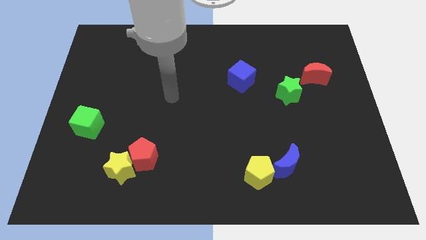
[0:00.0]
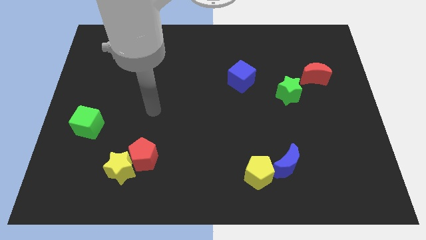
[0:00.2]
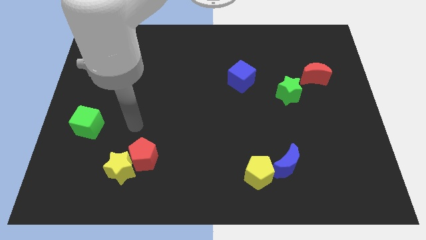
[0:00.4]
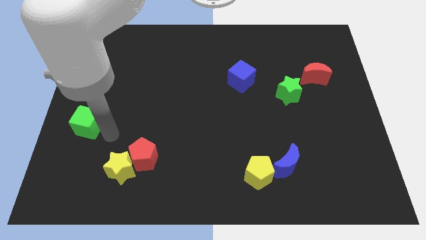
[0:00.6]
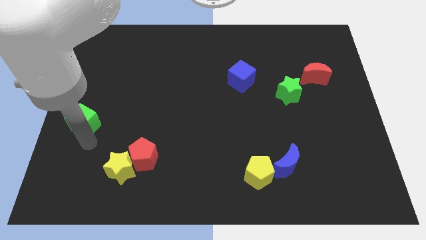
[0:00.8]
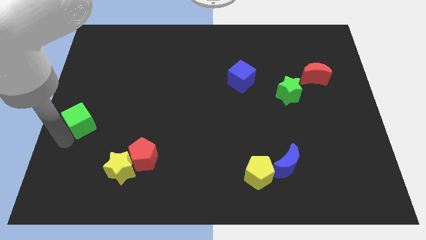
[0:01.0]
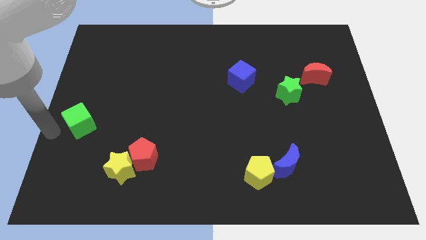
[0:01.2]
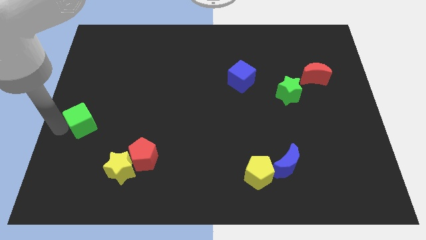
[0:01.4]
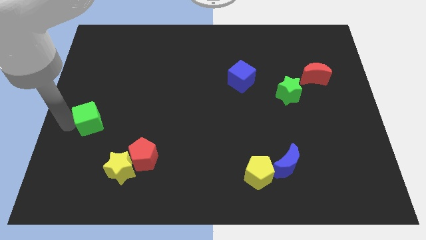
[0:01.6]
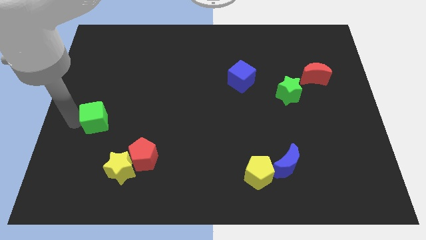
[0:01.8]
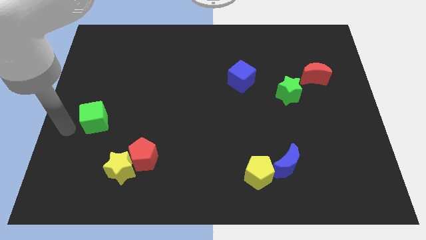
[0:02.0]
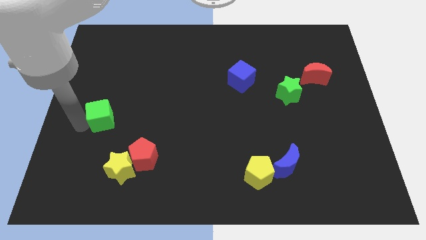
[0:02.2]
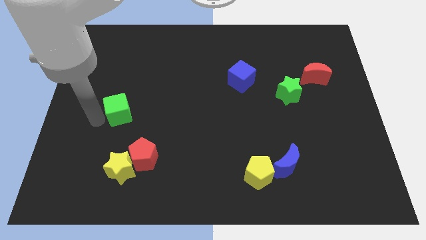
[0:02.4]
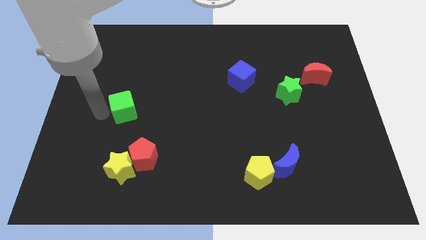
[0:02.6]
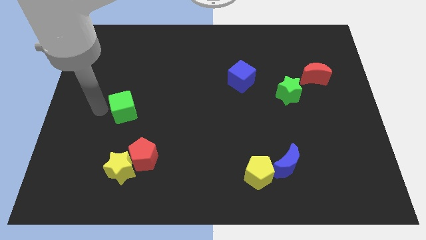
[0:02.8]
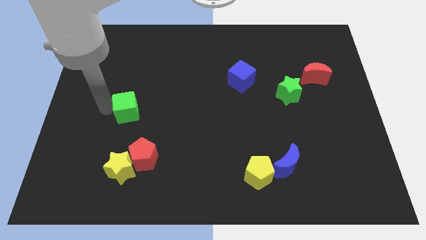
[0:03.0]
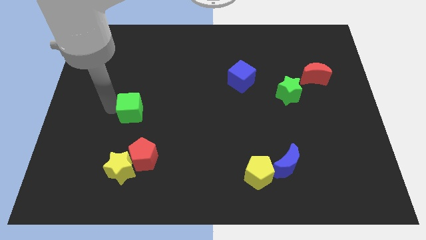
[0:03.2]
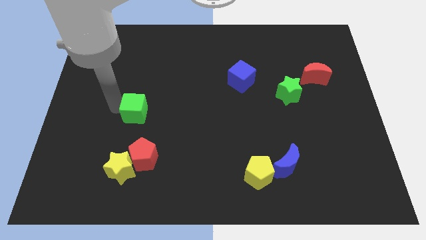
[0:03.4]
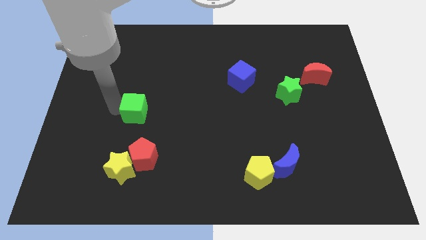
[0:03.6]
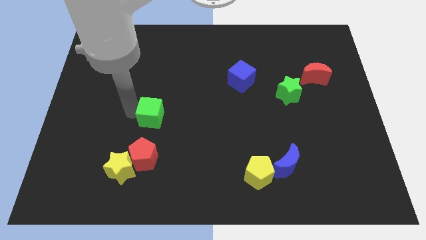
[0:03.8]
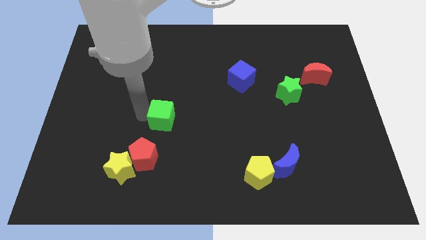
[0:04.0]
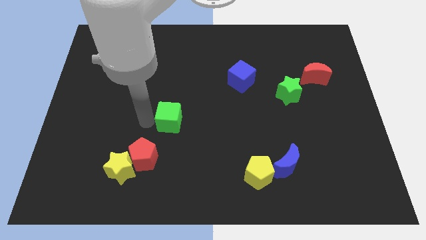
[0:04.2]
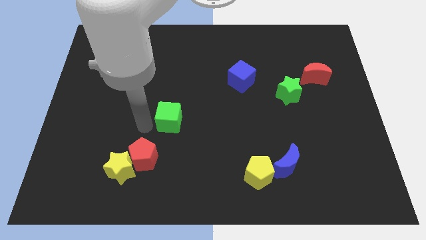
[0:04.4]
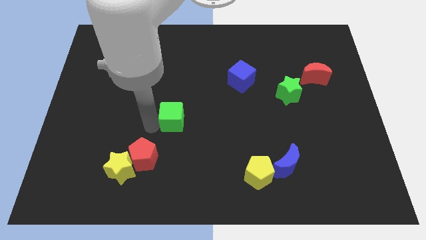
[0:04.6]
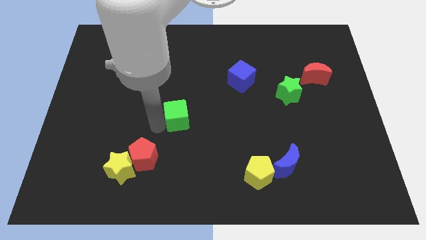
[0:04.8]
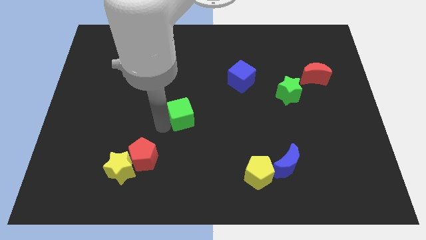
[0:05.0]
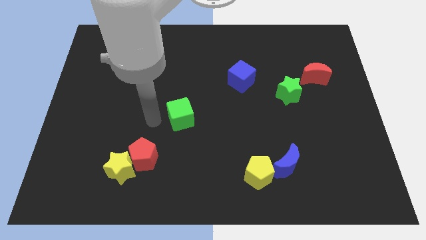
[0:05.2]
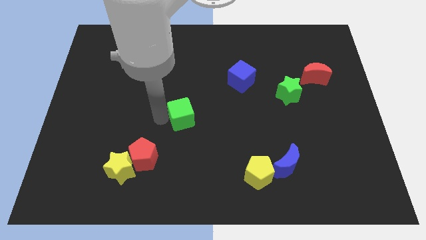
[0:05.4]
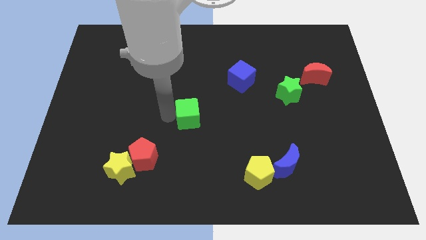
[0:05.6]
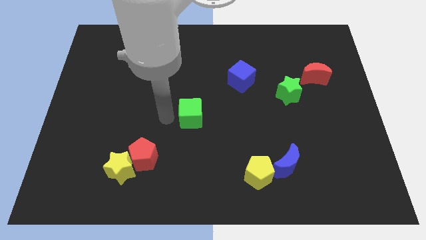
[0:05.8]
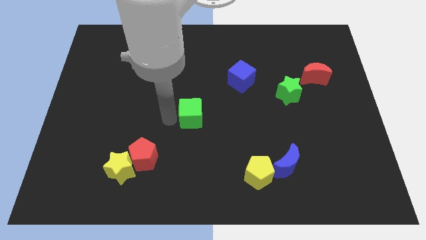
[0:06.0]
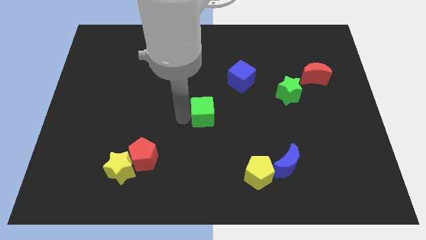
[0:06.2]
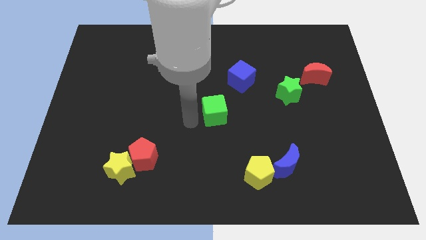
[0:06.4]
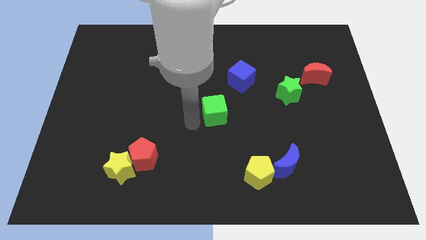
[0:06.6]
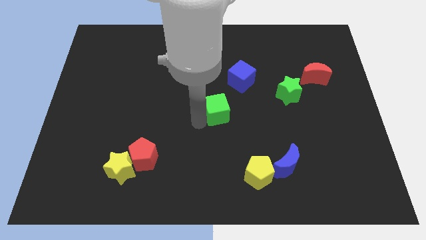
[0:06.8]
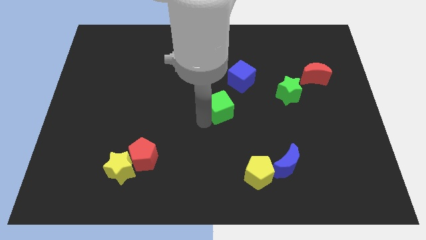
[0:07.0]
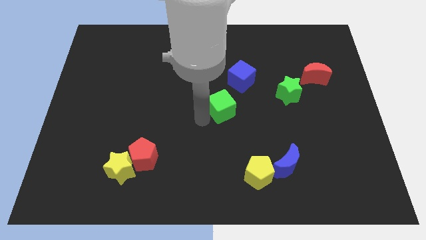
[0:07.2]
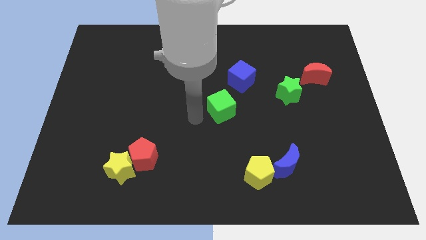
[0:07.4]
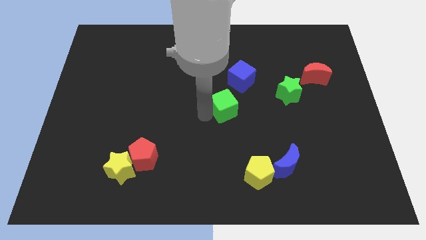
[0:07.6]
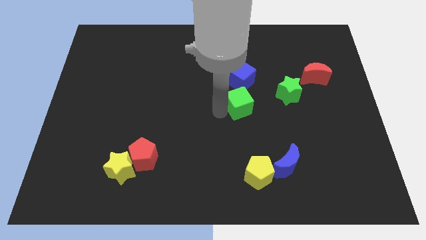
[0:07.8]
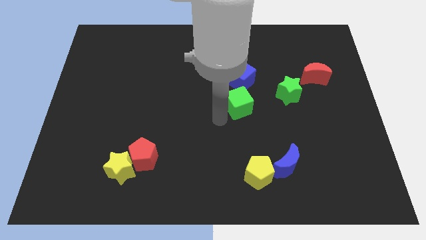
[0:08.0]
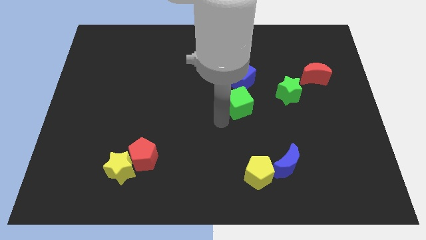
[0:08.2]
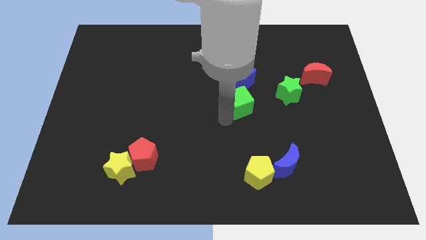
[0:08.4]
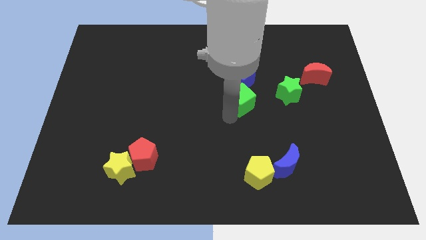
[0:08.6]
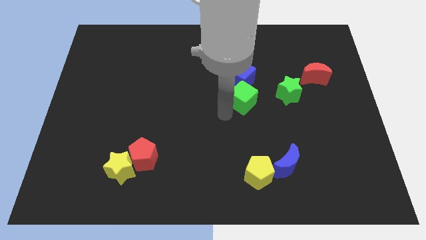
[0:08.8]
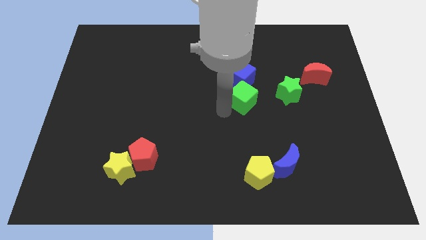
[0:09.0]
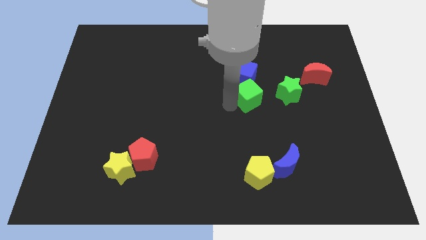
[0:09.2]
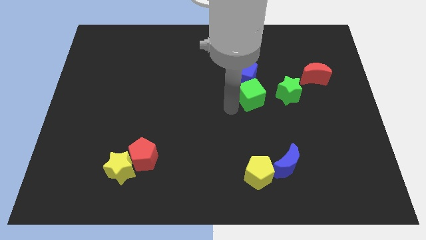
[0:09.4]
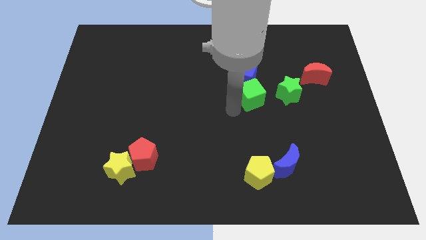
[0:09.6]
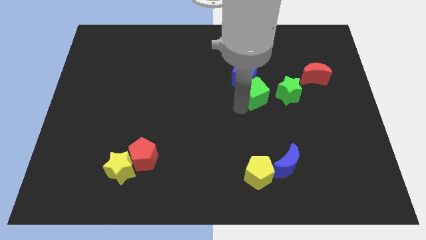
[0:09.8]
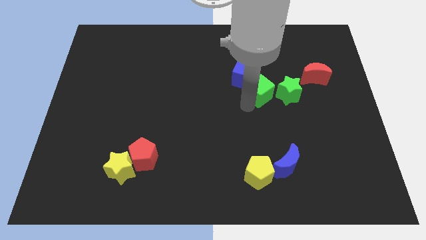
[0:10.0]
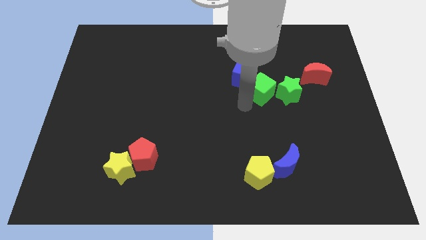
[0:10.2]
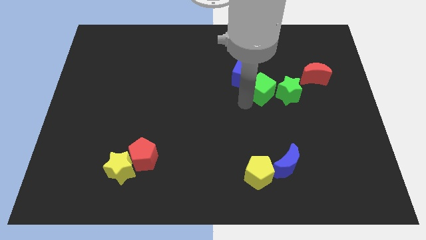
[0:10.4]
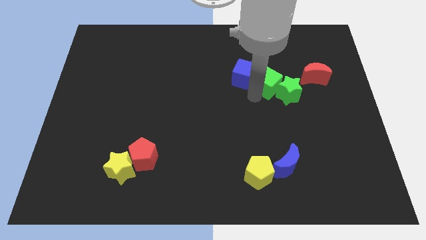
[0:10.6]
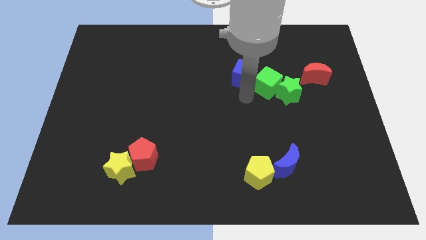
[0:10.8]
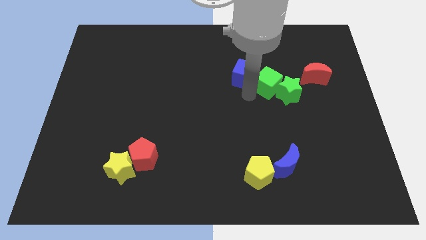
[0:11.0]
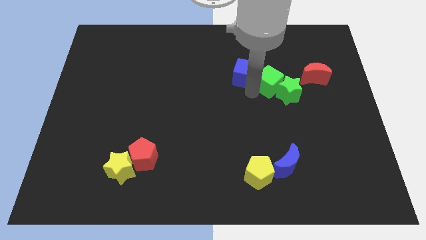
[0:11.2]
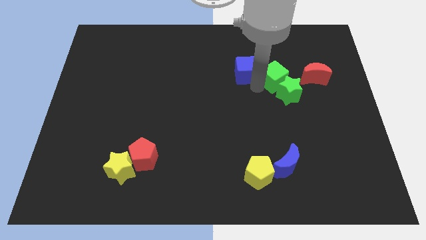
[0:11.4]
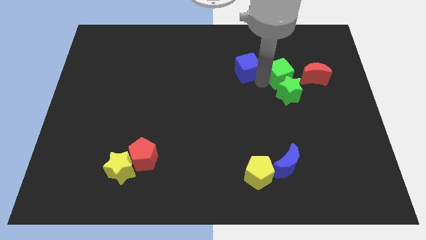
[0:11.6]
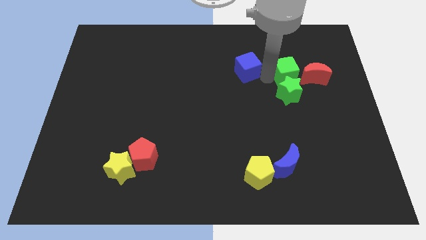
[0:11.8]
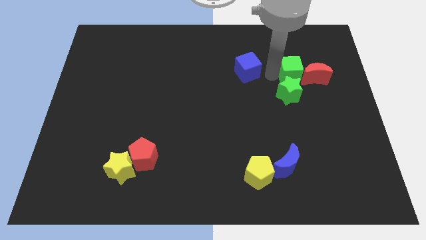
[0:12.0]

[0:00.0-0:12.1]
move the green cube next to the red moon
